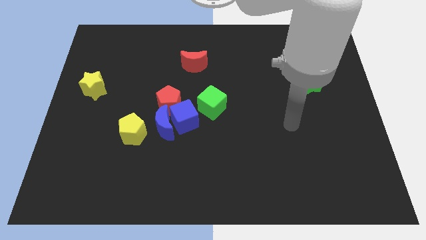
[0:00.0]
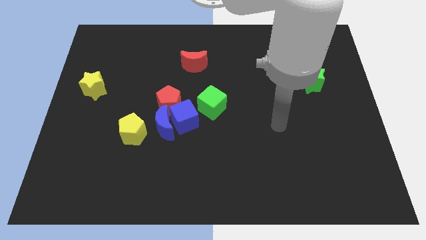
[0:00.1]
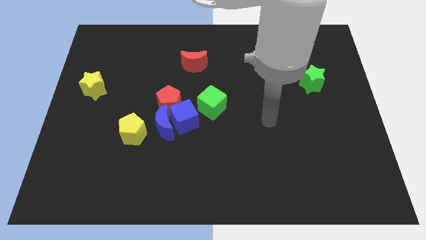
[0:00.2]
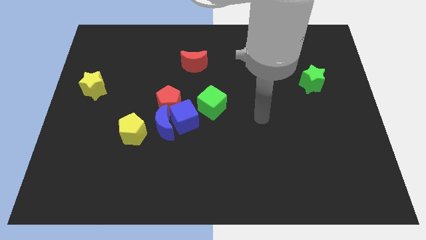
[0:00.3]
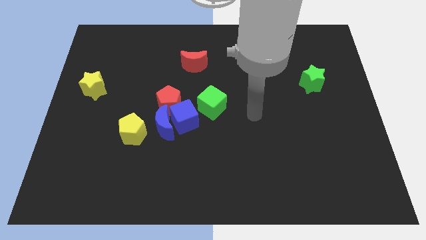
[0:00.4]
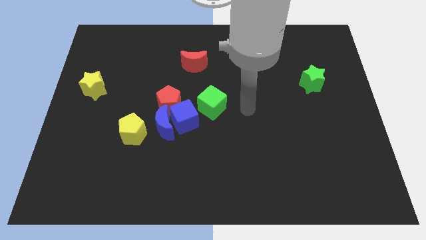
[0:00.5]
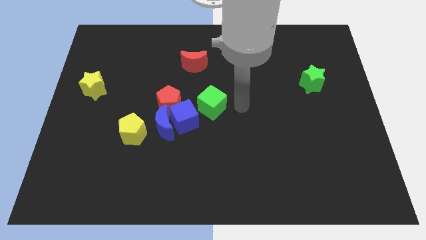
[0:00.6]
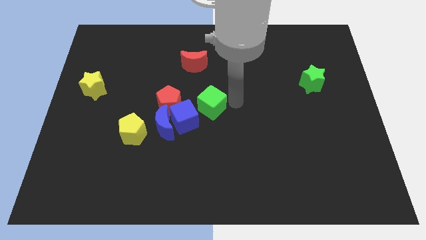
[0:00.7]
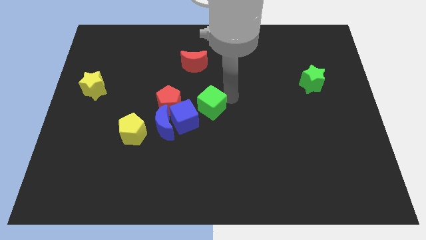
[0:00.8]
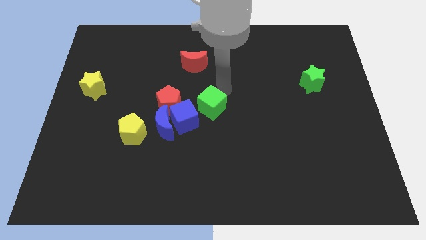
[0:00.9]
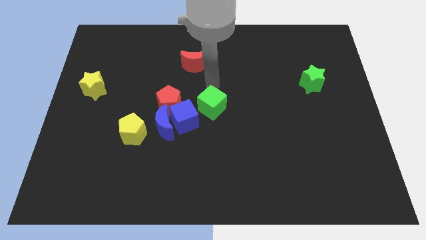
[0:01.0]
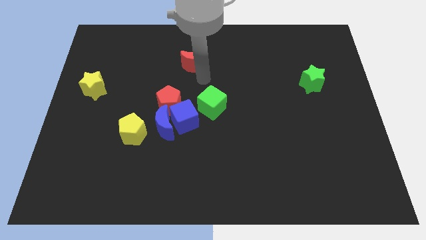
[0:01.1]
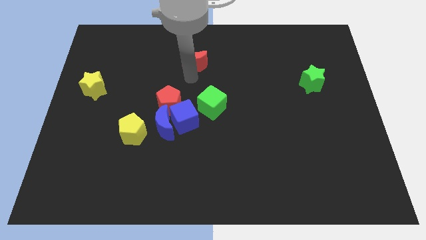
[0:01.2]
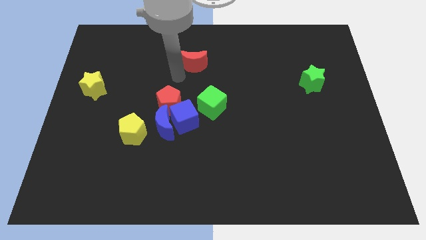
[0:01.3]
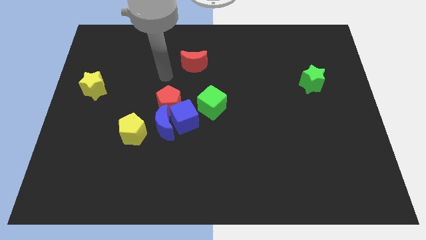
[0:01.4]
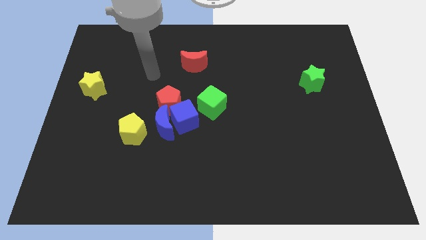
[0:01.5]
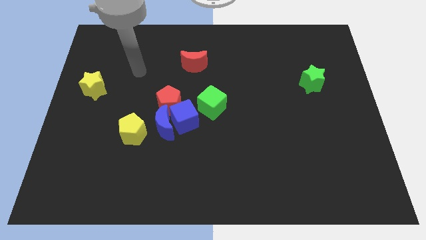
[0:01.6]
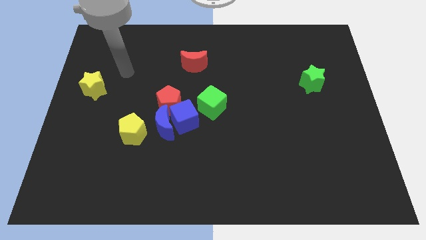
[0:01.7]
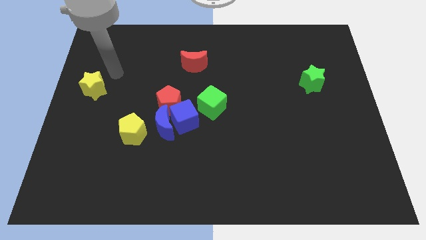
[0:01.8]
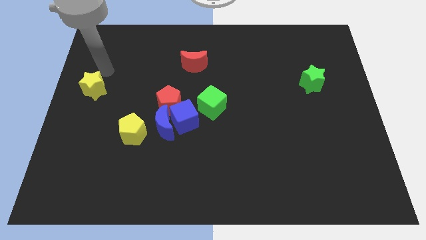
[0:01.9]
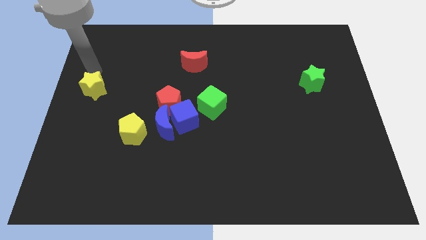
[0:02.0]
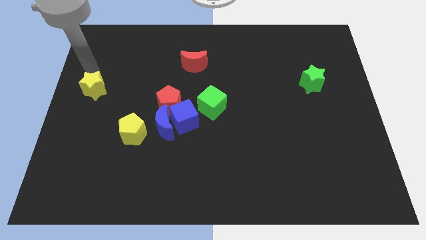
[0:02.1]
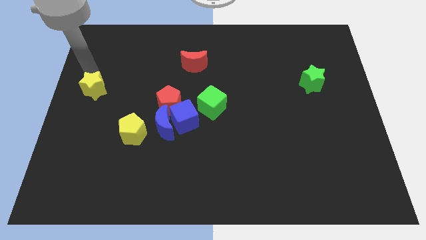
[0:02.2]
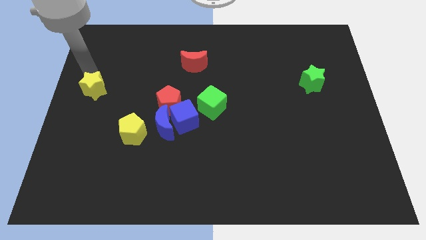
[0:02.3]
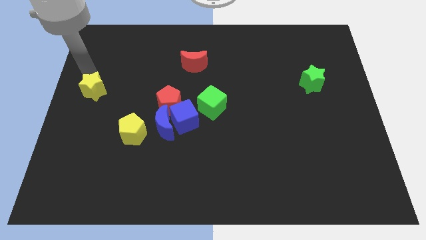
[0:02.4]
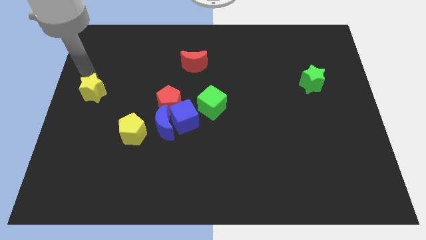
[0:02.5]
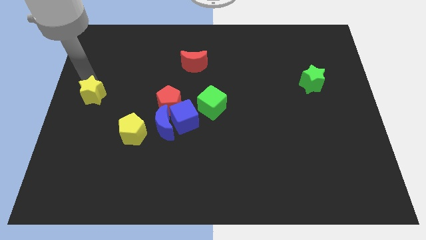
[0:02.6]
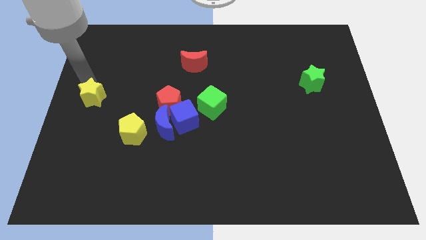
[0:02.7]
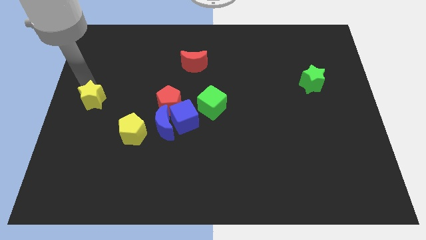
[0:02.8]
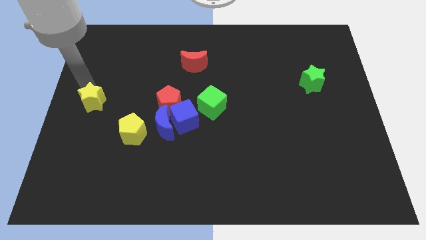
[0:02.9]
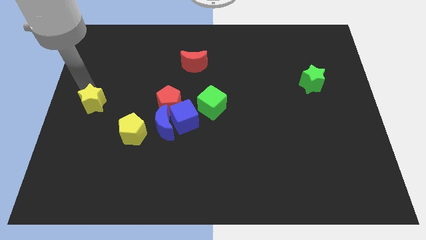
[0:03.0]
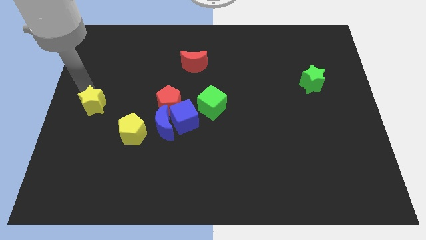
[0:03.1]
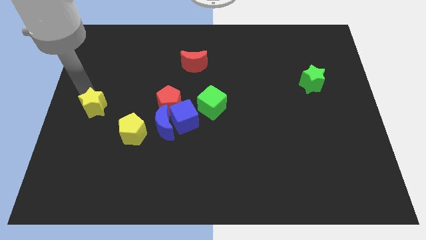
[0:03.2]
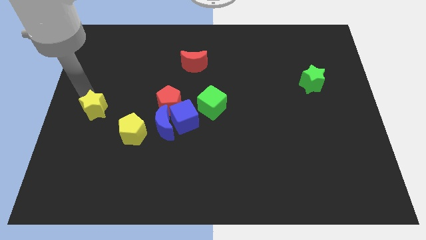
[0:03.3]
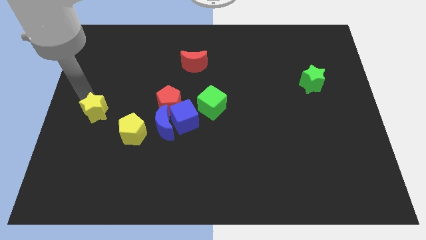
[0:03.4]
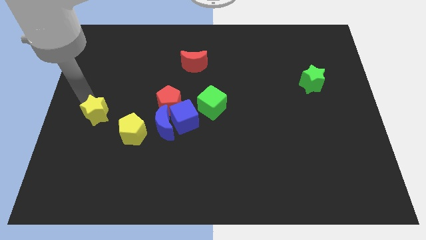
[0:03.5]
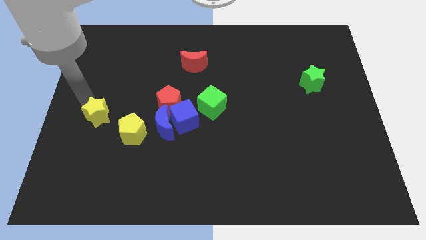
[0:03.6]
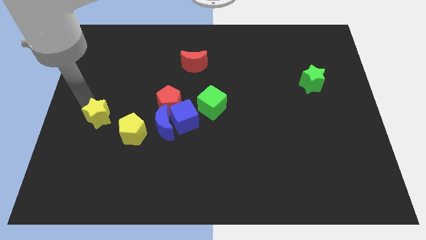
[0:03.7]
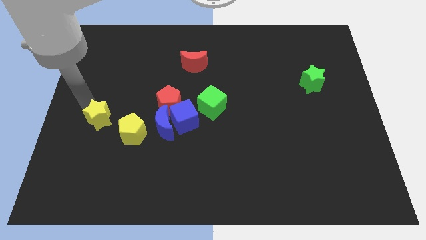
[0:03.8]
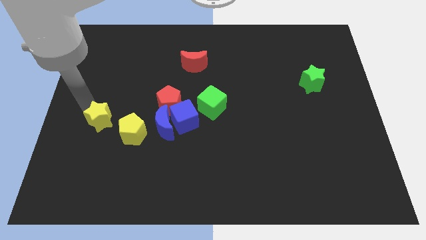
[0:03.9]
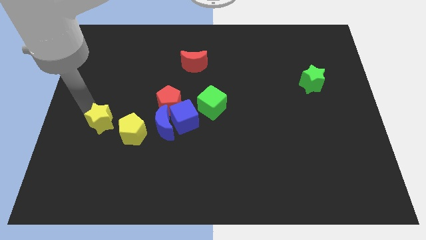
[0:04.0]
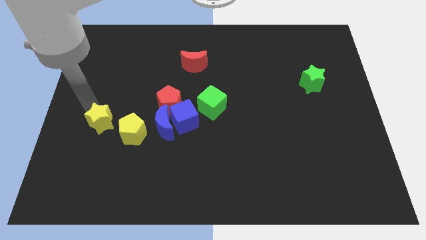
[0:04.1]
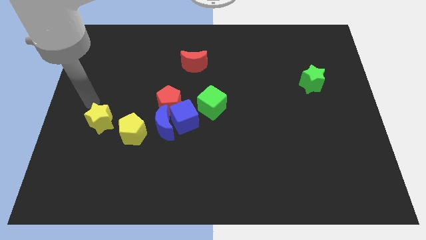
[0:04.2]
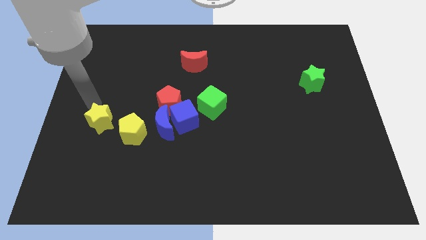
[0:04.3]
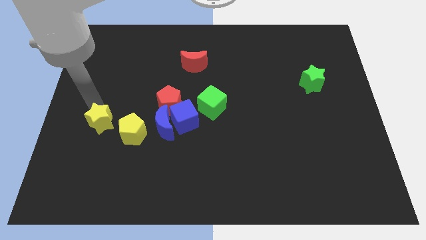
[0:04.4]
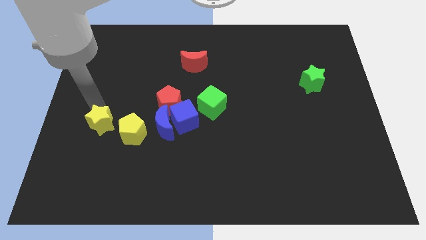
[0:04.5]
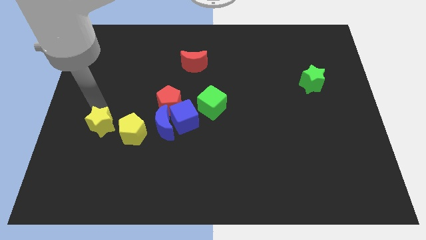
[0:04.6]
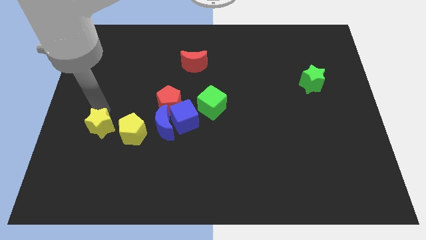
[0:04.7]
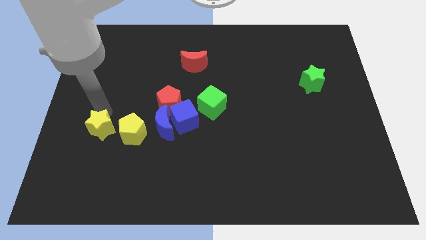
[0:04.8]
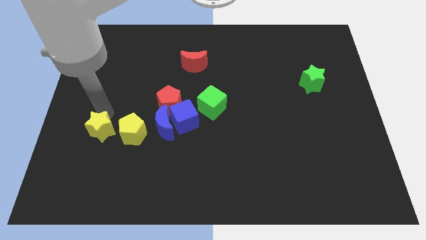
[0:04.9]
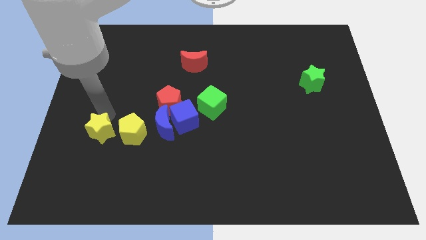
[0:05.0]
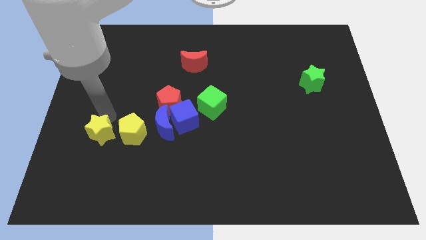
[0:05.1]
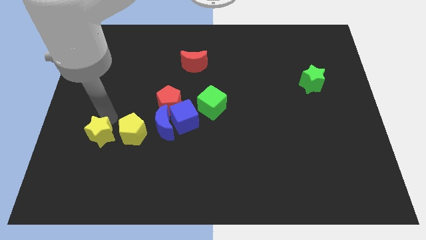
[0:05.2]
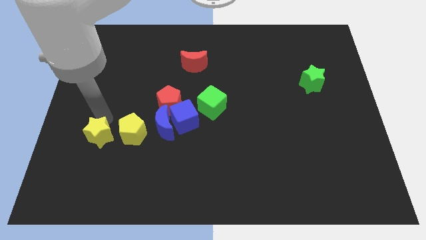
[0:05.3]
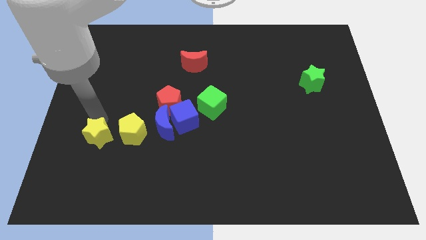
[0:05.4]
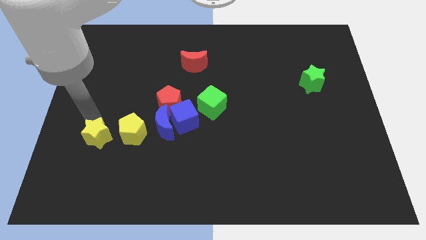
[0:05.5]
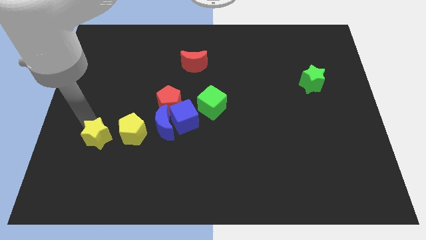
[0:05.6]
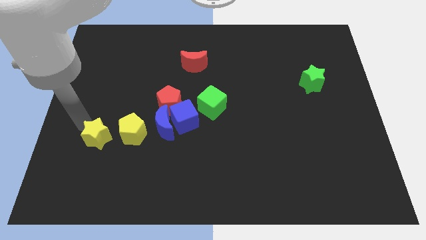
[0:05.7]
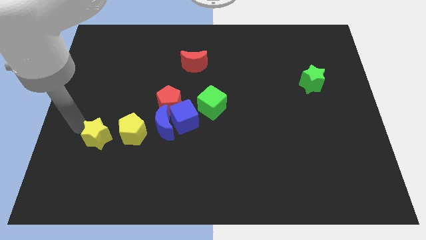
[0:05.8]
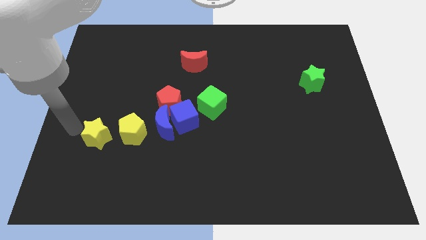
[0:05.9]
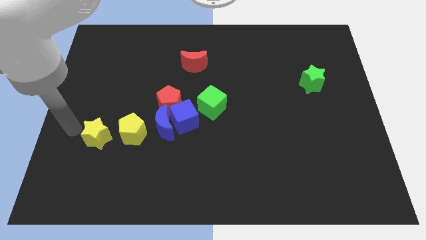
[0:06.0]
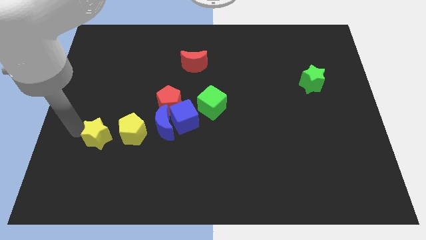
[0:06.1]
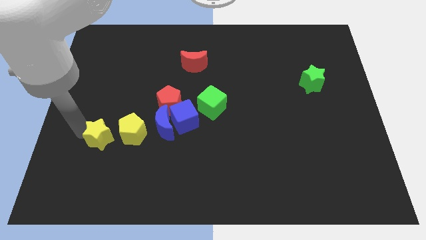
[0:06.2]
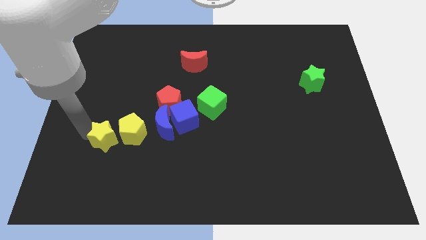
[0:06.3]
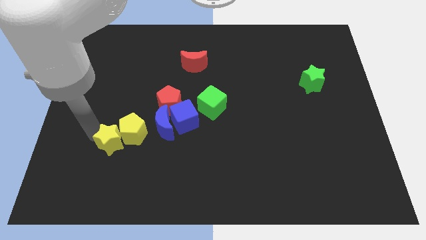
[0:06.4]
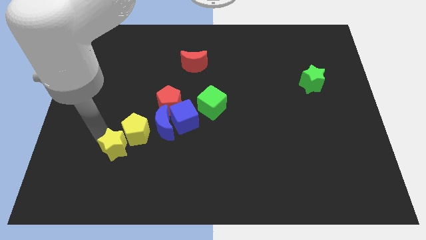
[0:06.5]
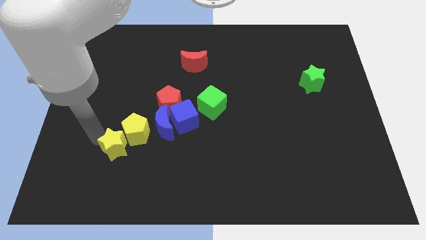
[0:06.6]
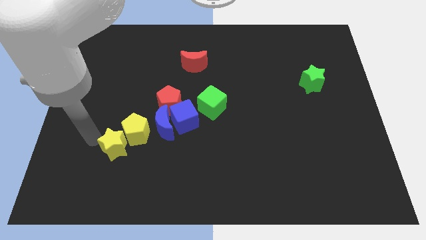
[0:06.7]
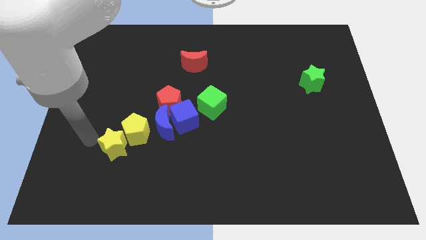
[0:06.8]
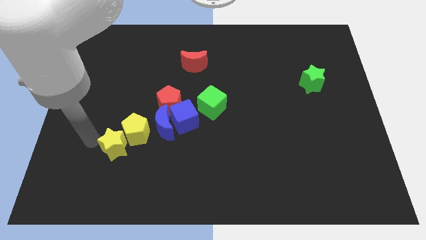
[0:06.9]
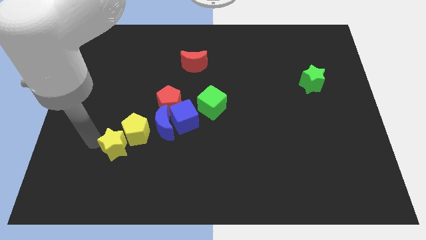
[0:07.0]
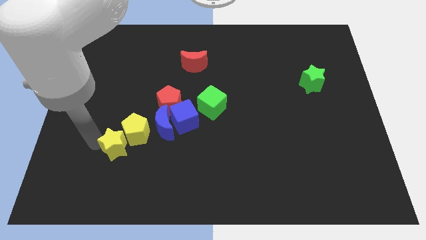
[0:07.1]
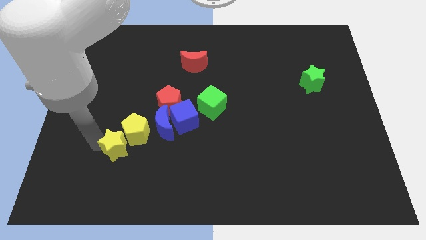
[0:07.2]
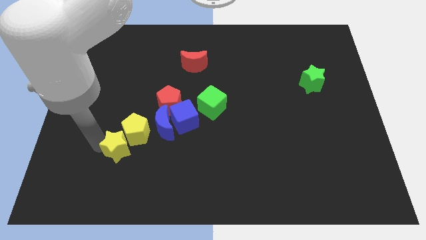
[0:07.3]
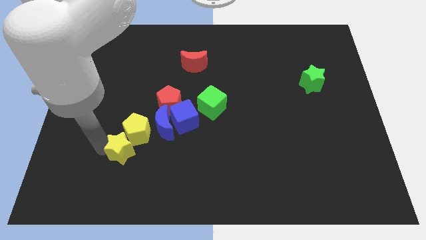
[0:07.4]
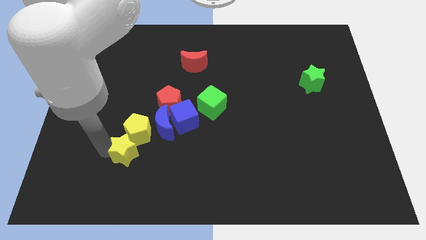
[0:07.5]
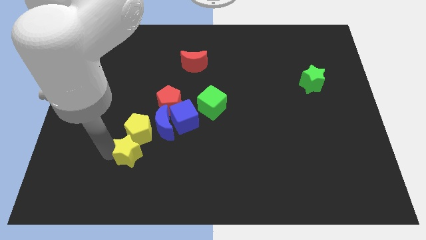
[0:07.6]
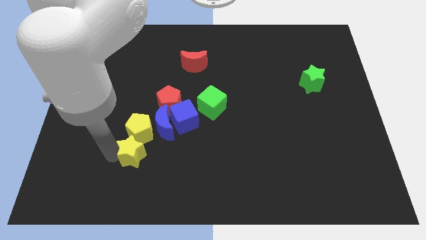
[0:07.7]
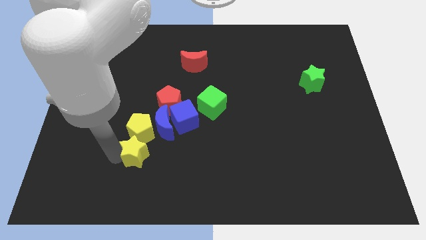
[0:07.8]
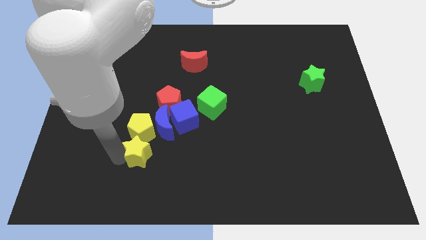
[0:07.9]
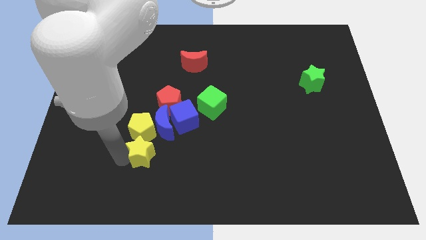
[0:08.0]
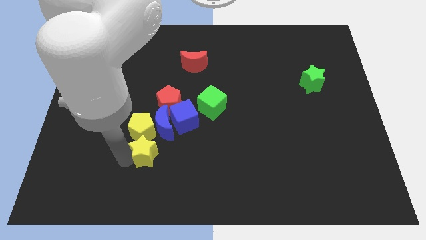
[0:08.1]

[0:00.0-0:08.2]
slide the yellow star to the bottom of the red pentagon
